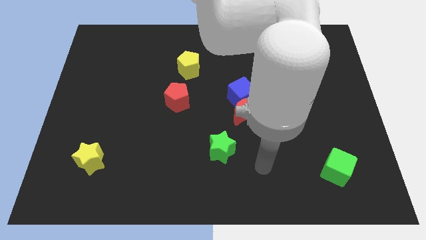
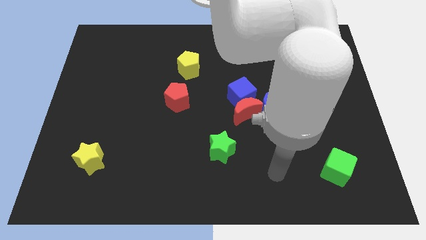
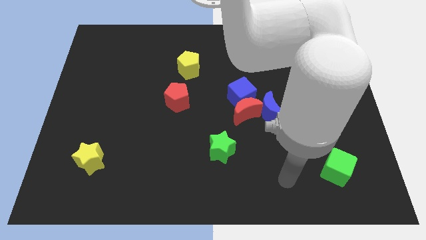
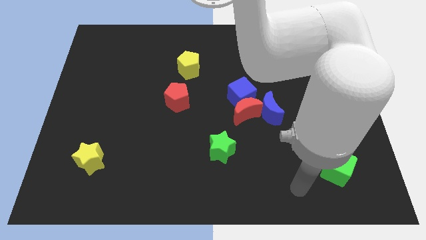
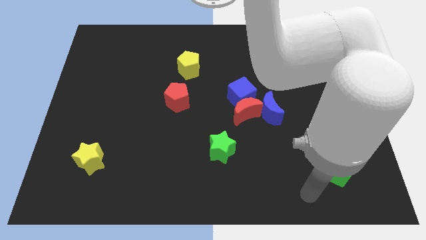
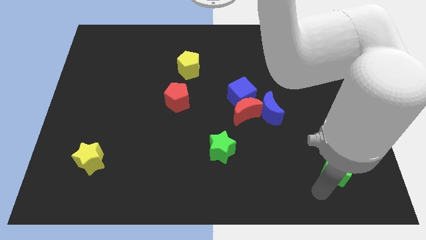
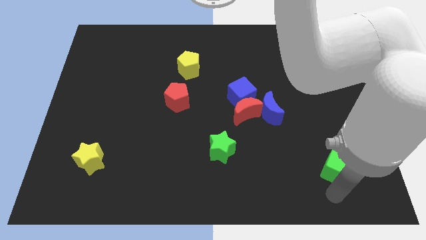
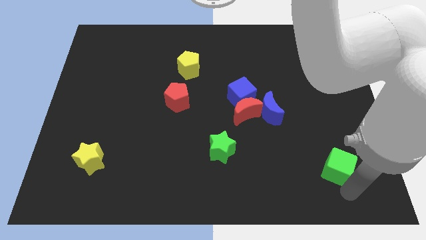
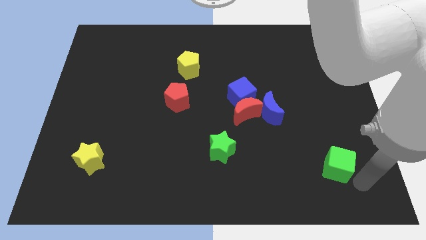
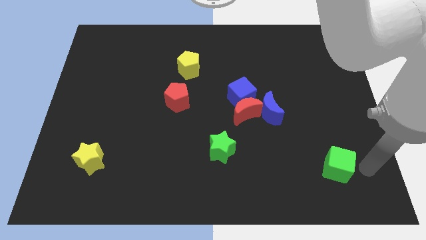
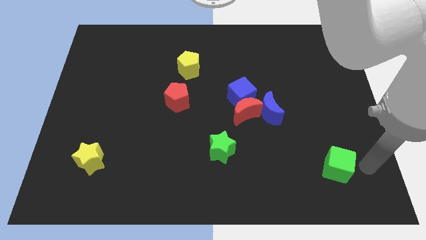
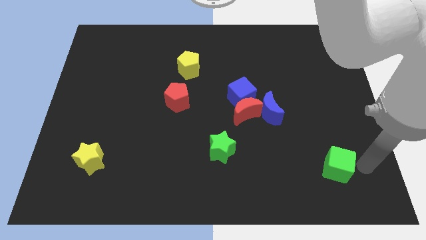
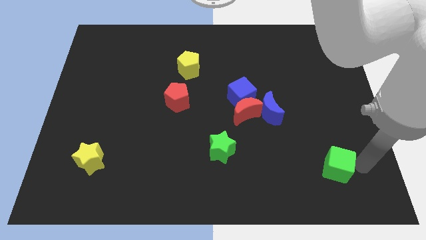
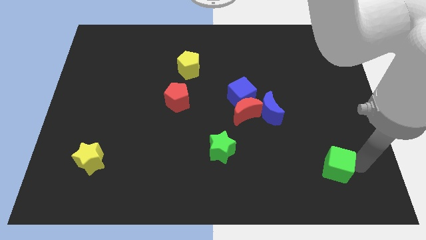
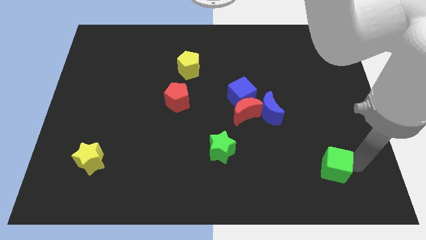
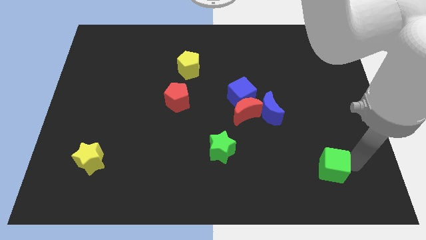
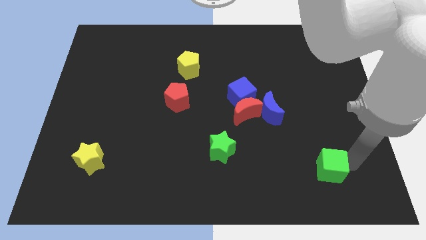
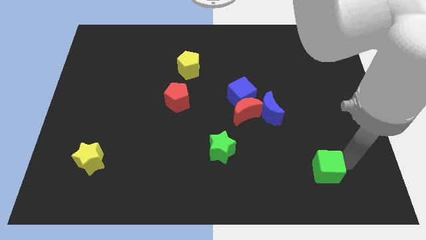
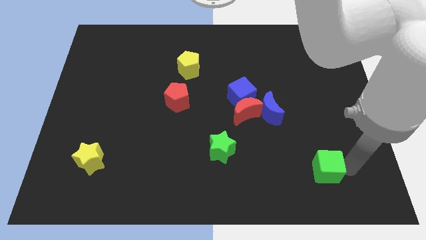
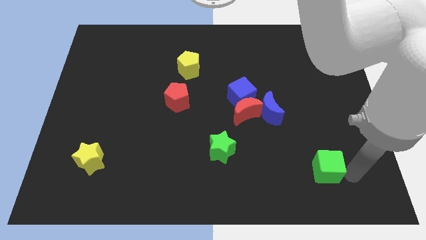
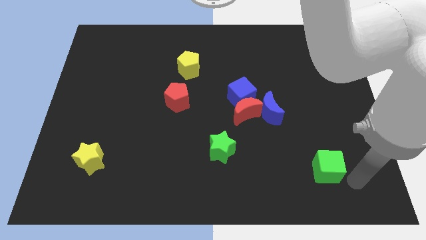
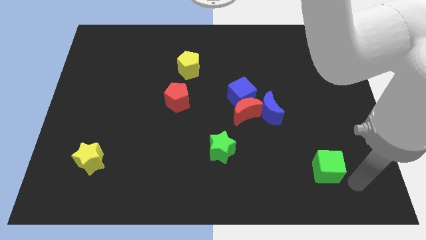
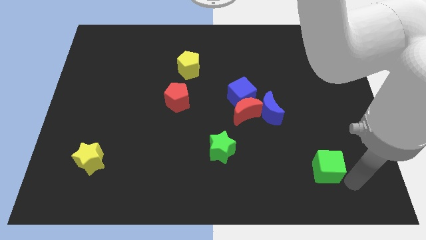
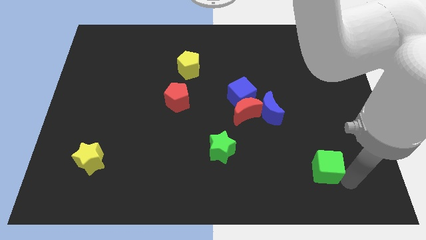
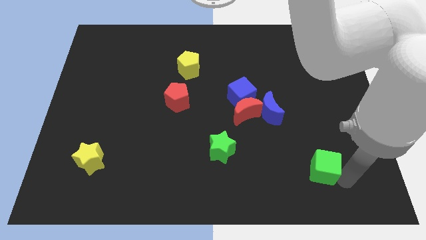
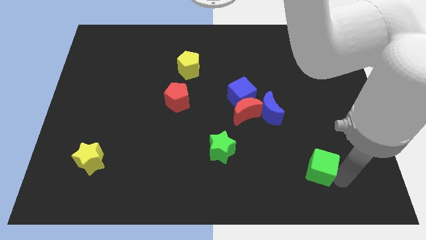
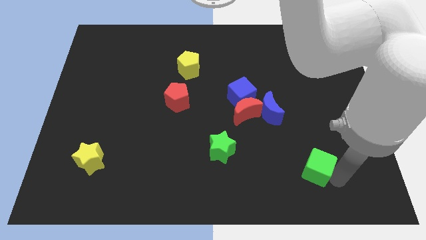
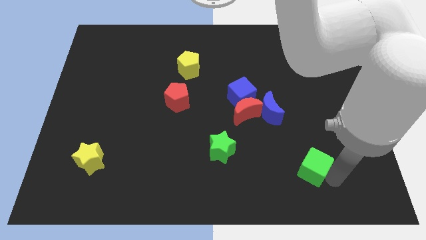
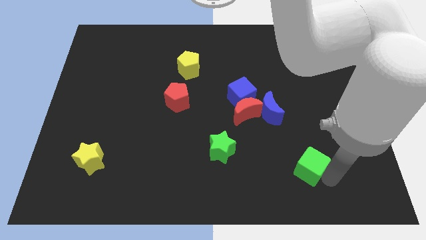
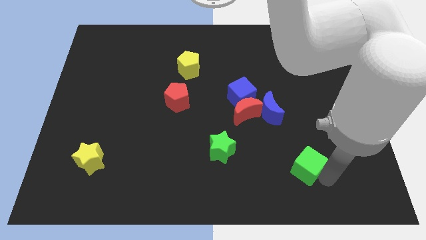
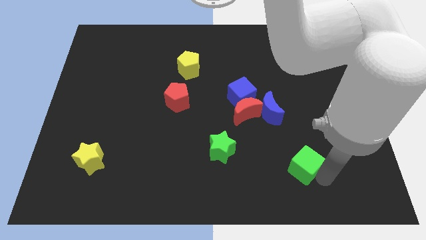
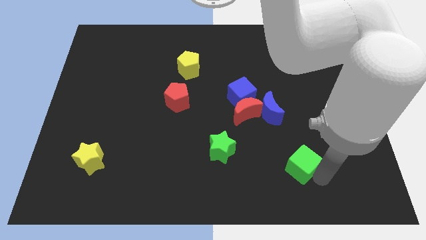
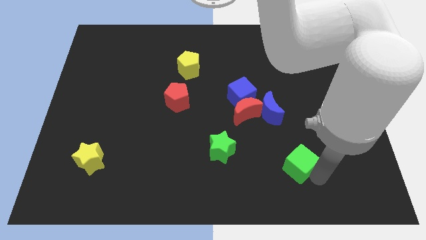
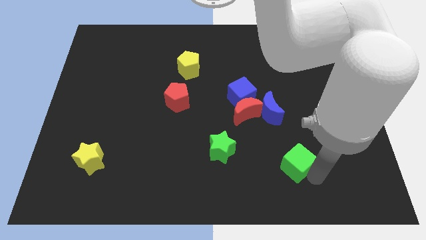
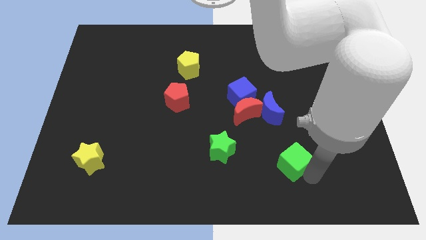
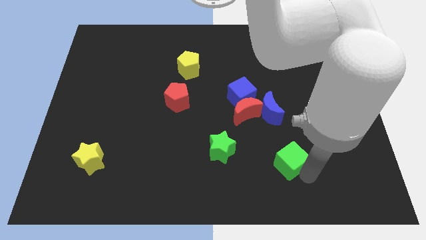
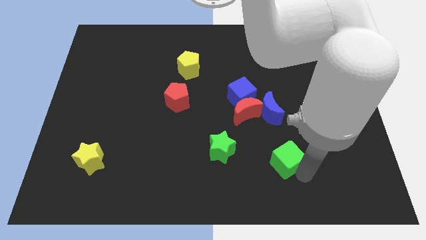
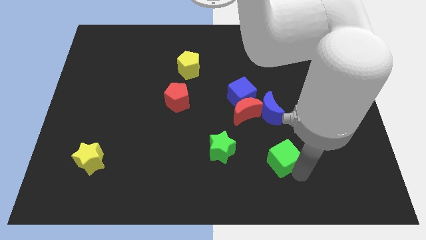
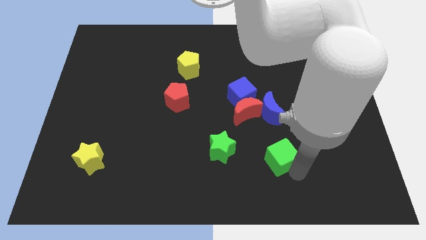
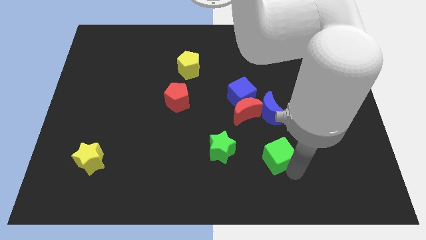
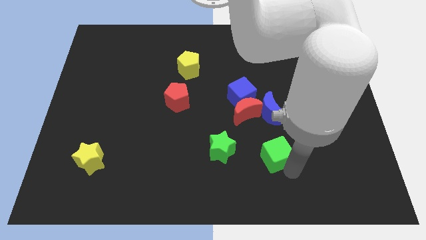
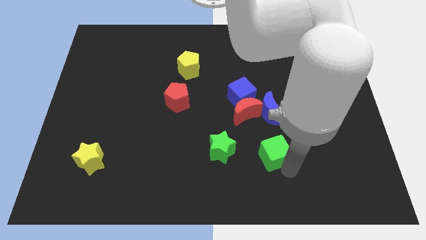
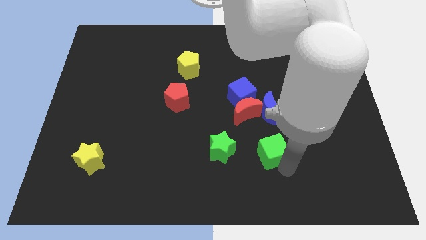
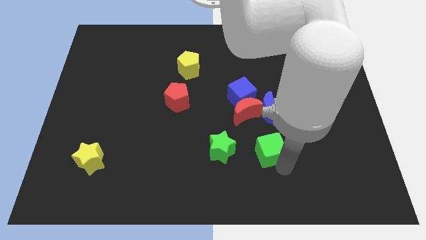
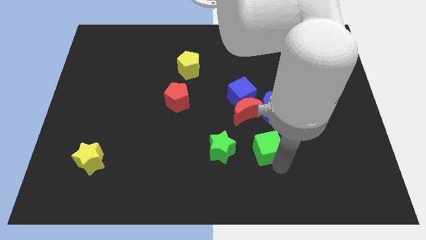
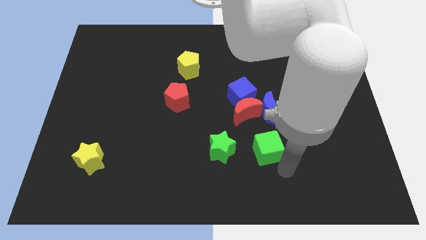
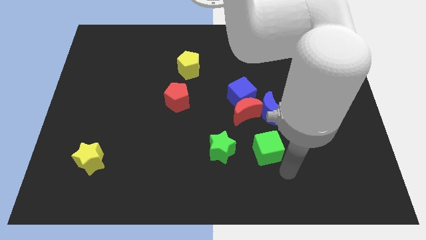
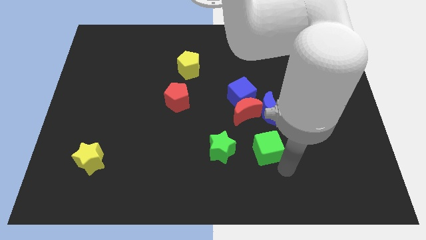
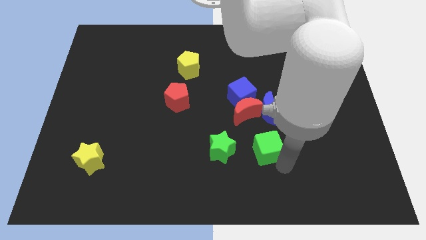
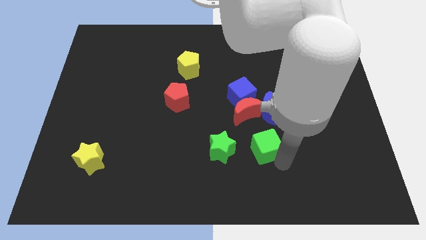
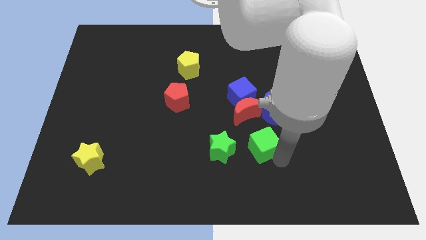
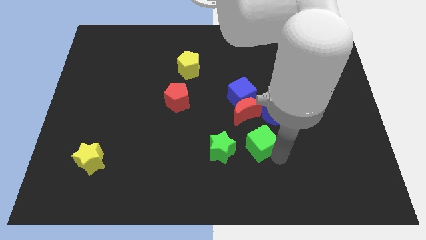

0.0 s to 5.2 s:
slide the green cube diagonally down and to the left of the blue moon

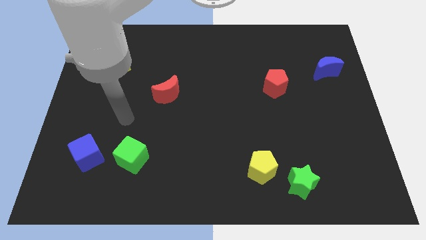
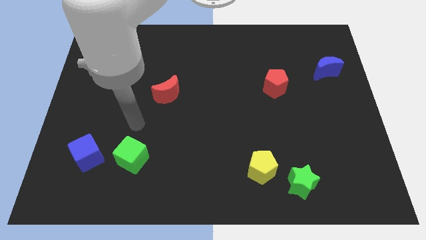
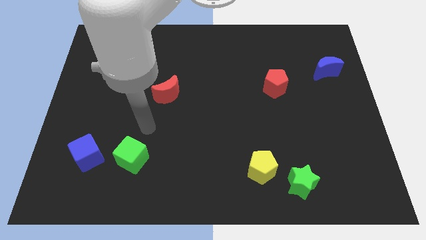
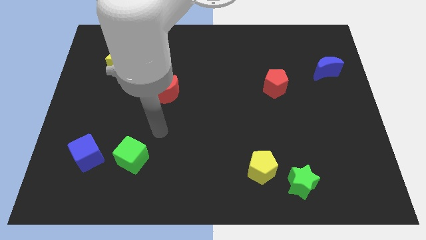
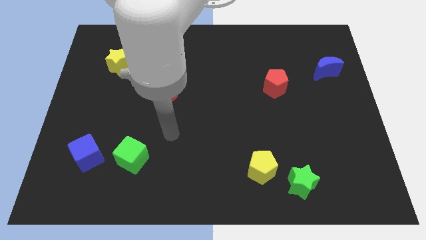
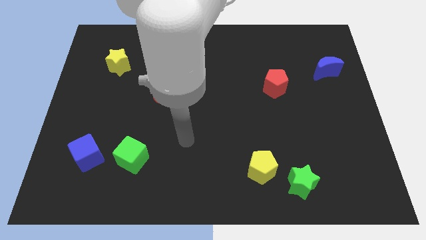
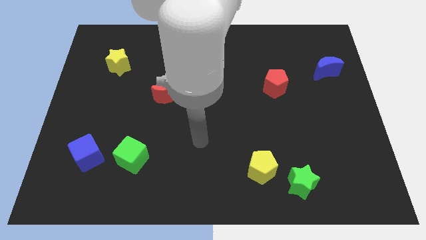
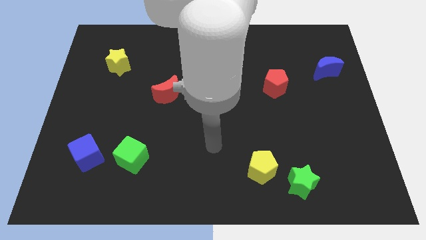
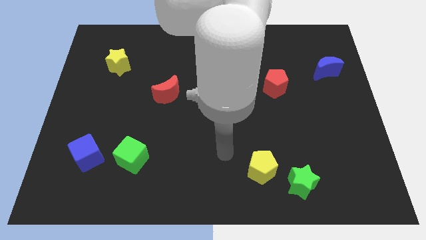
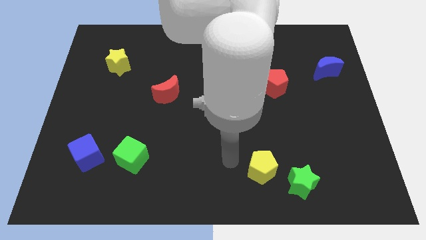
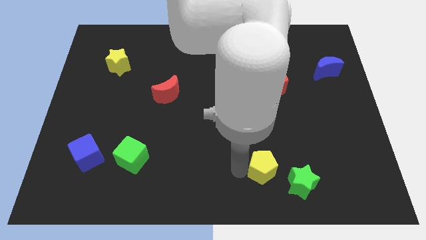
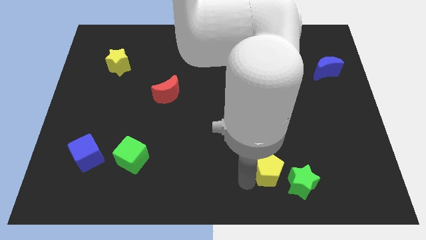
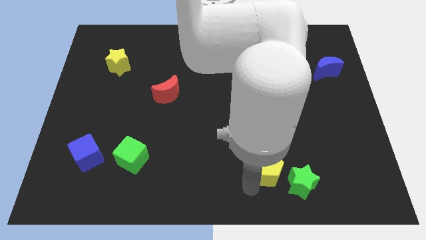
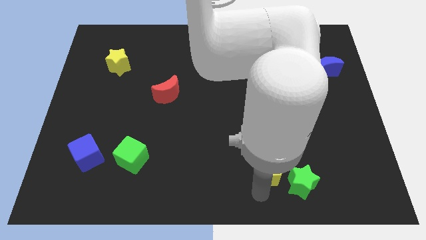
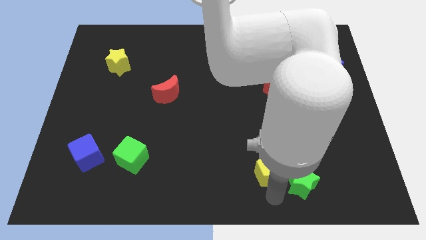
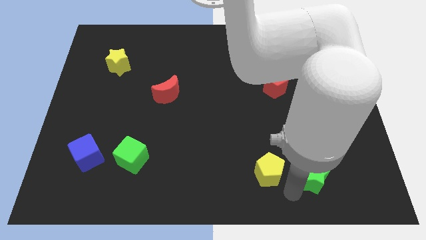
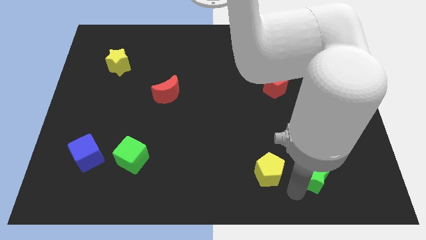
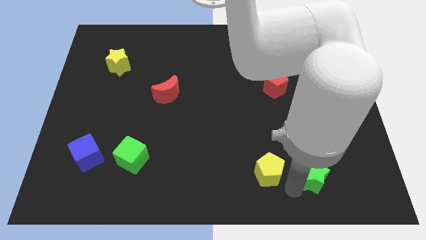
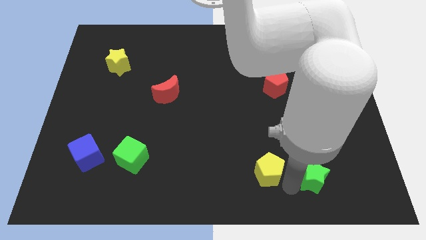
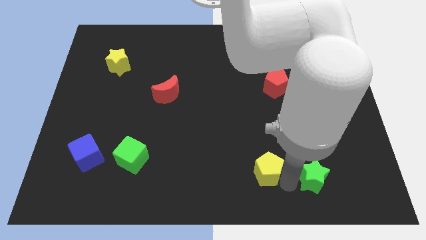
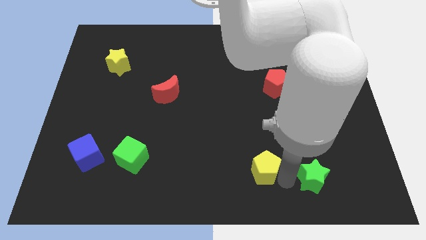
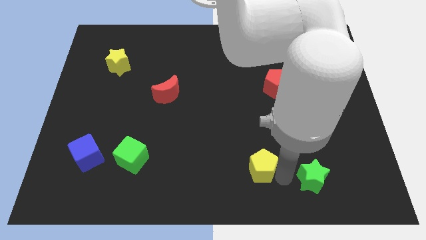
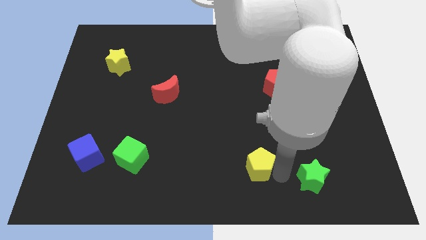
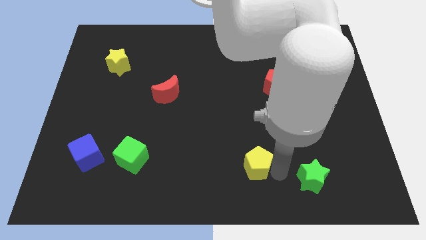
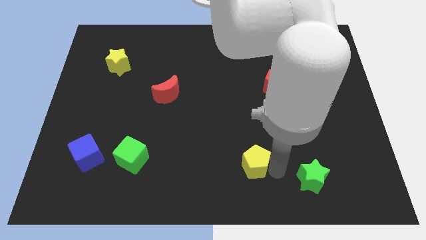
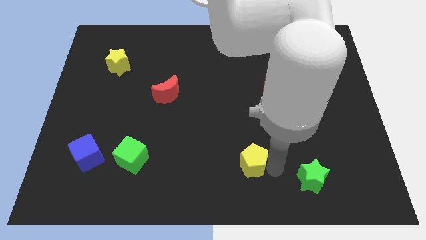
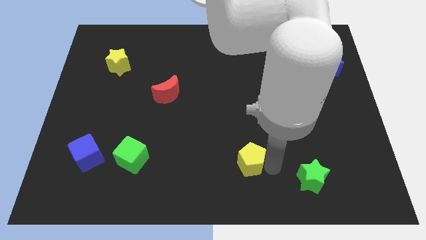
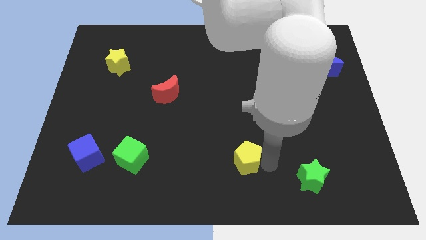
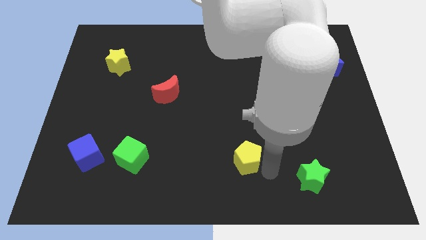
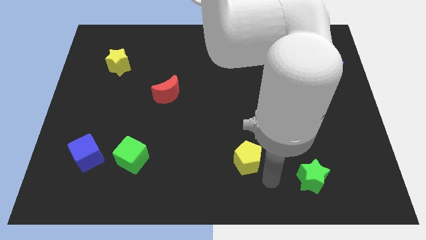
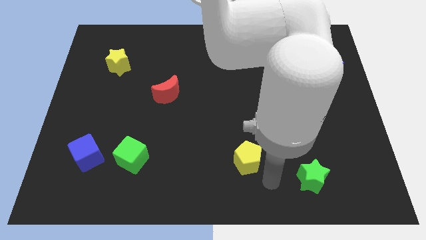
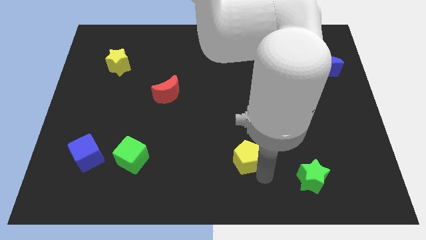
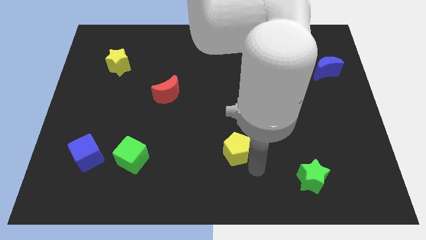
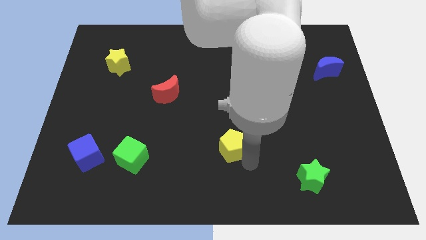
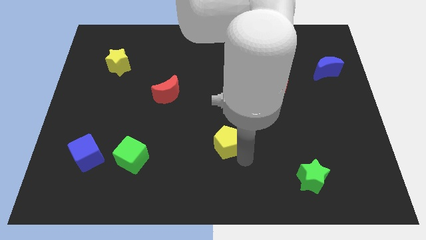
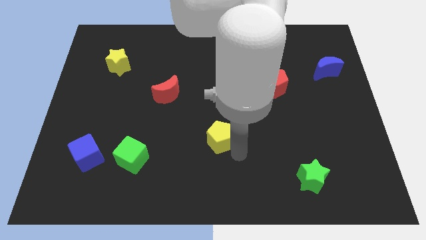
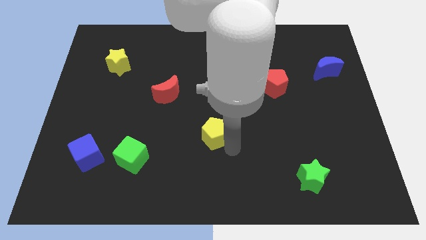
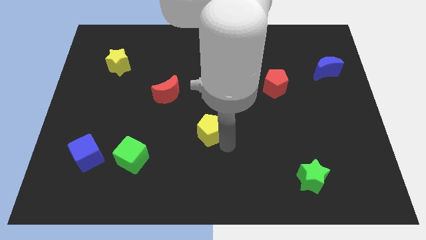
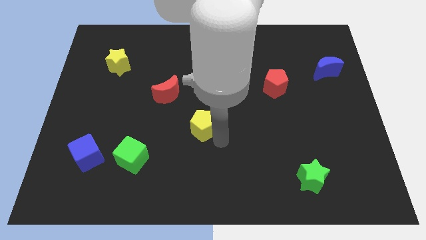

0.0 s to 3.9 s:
move the yellow pentagon to the bottom right of the red moon
